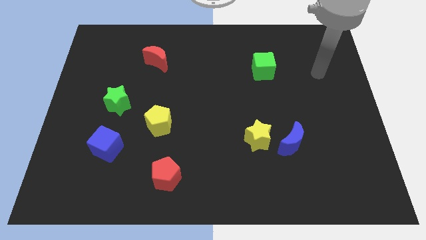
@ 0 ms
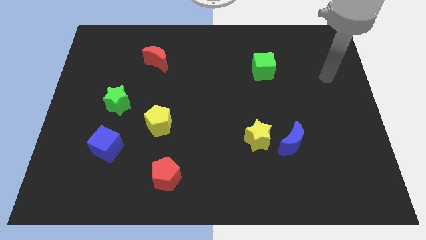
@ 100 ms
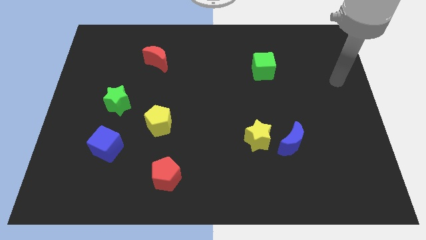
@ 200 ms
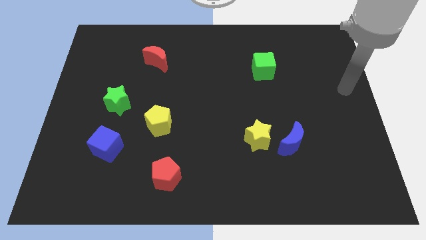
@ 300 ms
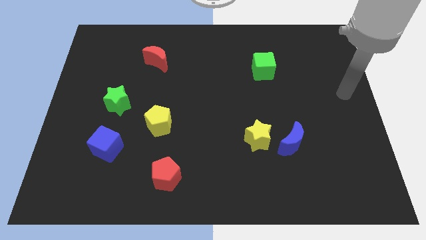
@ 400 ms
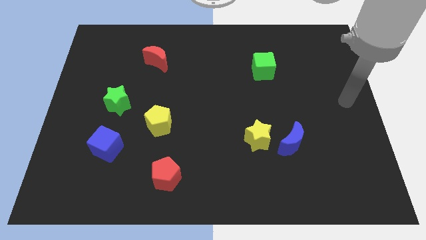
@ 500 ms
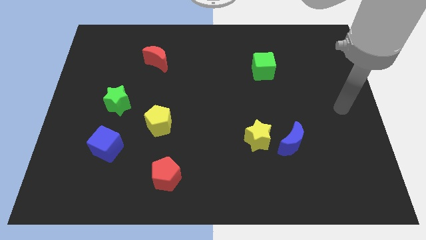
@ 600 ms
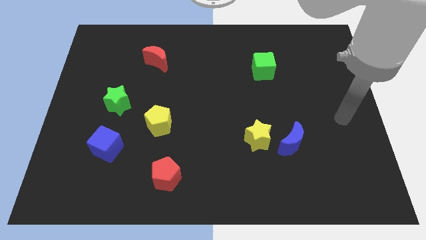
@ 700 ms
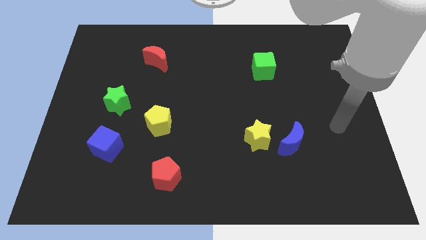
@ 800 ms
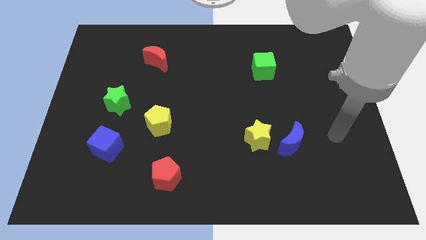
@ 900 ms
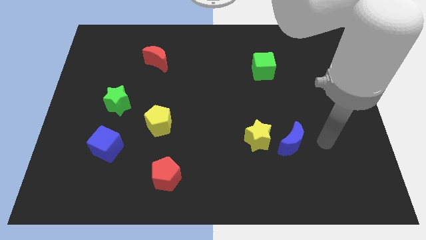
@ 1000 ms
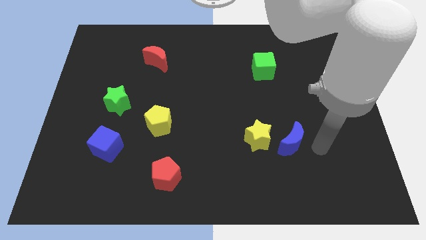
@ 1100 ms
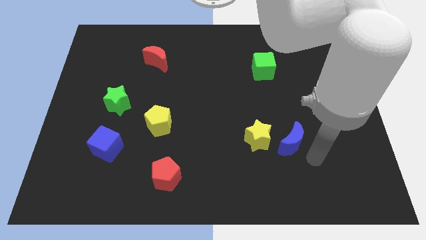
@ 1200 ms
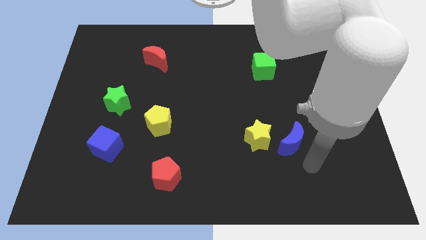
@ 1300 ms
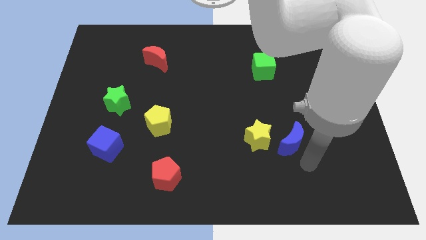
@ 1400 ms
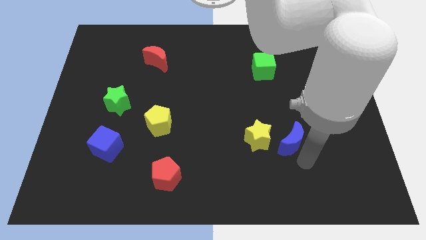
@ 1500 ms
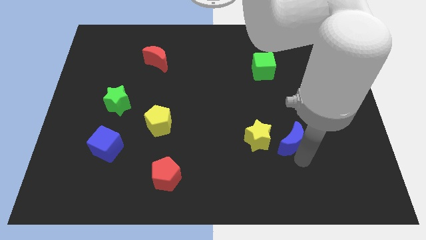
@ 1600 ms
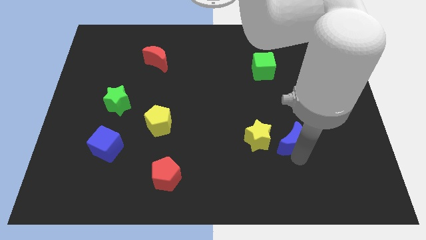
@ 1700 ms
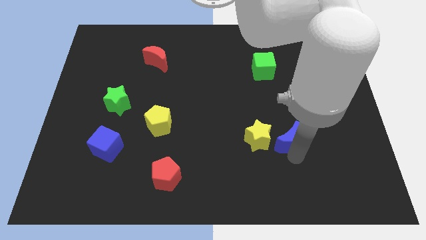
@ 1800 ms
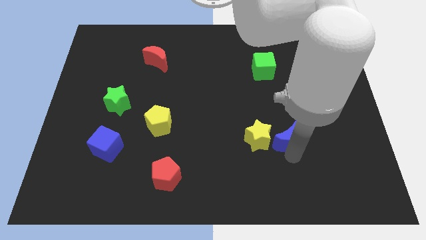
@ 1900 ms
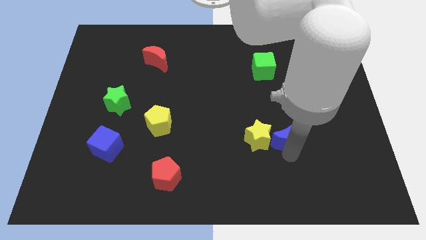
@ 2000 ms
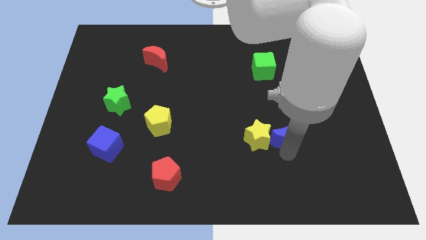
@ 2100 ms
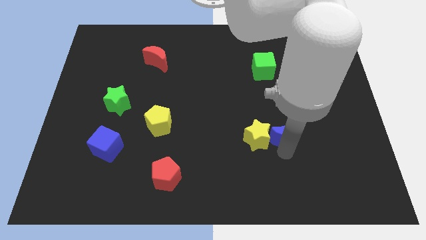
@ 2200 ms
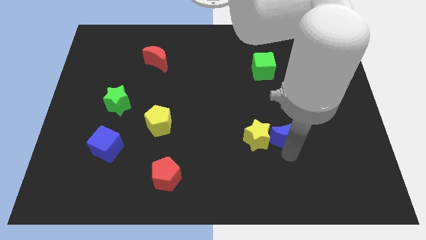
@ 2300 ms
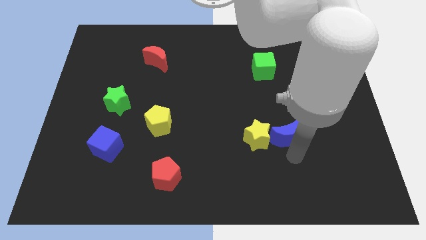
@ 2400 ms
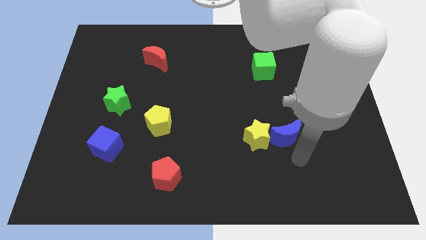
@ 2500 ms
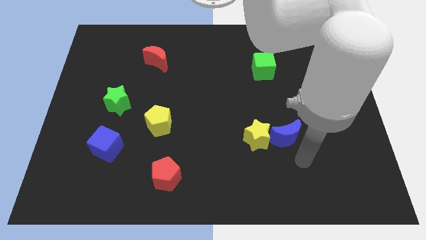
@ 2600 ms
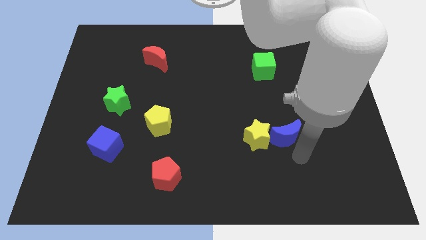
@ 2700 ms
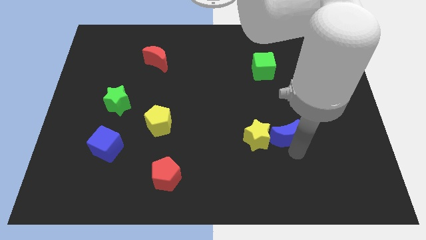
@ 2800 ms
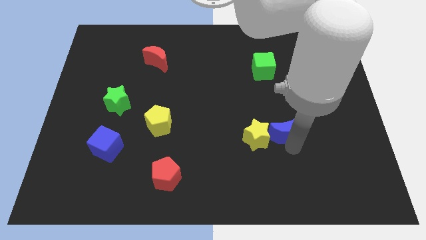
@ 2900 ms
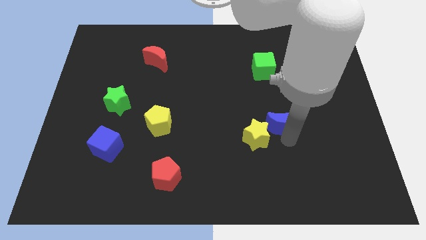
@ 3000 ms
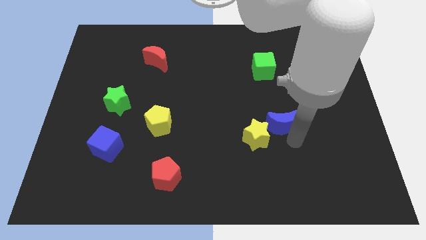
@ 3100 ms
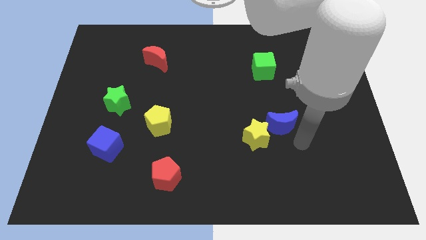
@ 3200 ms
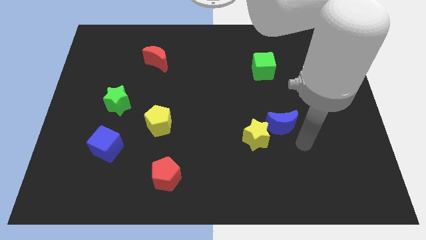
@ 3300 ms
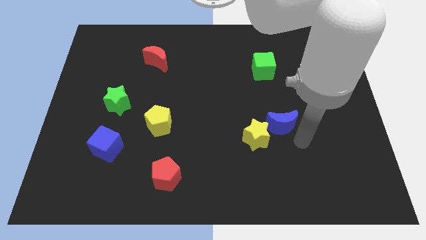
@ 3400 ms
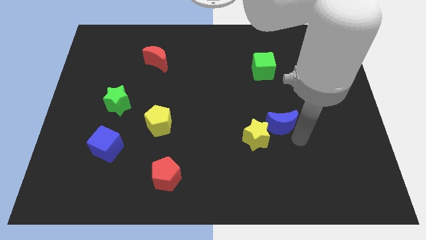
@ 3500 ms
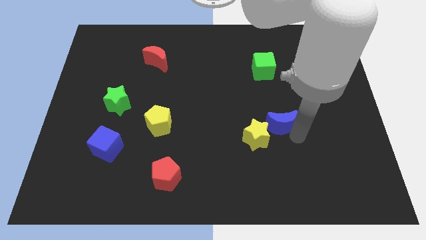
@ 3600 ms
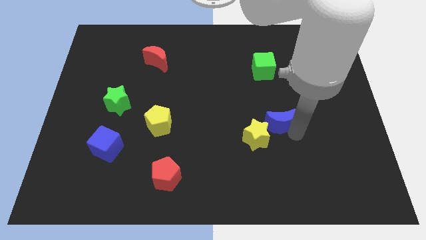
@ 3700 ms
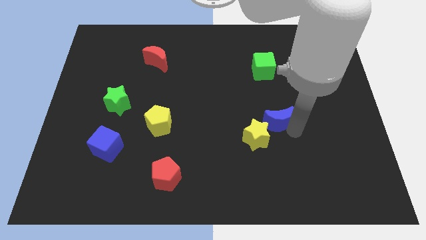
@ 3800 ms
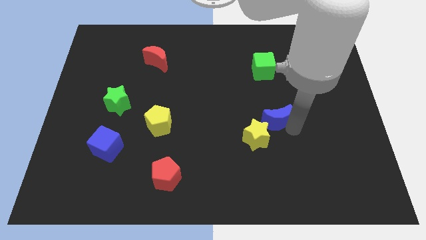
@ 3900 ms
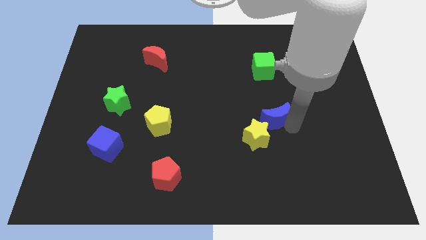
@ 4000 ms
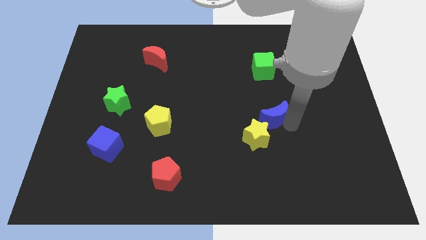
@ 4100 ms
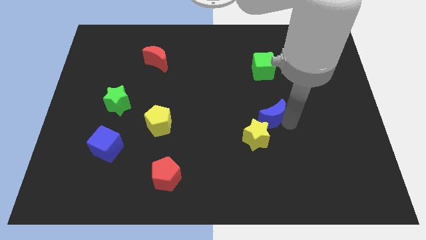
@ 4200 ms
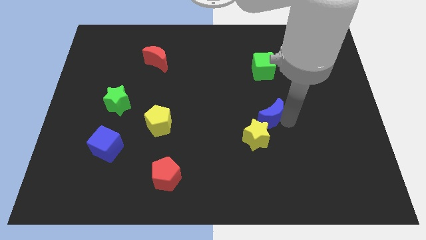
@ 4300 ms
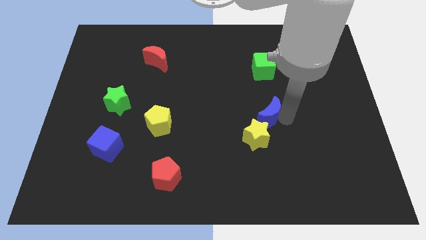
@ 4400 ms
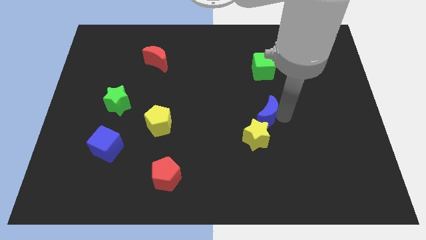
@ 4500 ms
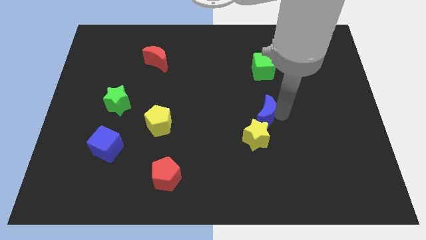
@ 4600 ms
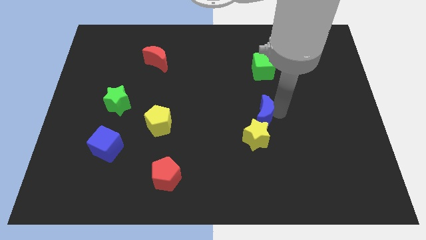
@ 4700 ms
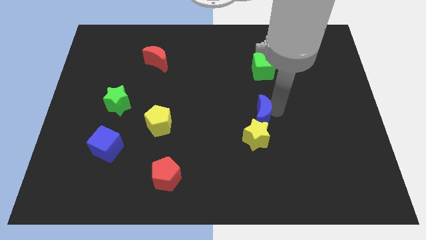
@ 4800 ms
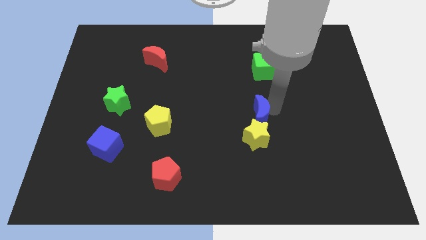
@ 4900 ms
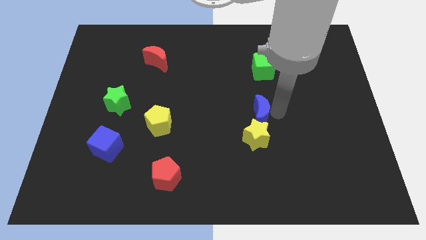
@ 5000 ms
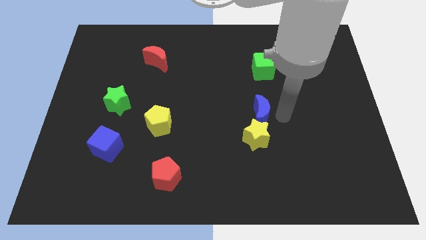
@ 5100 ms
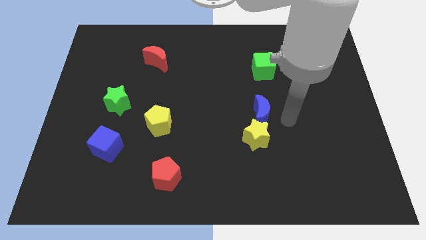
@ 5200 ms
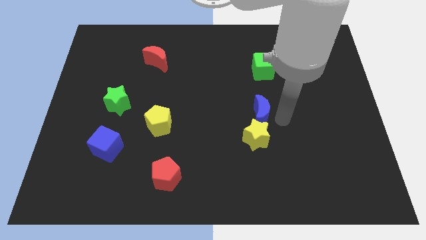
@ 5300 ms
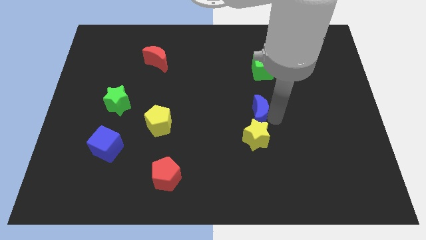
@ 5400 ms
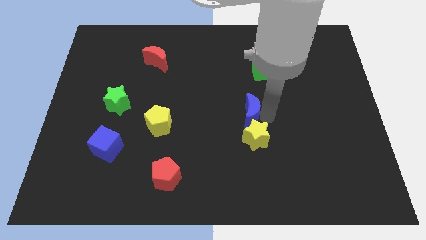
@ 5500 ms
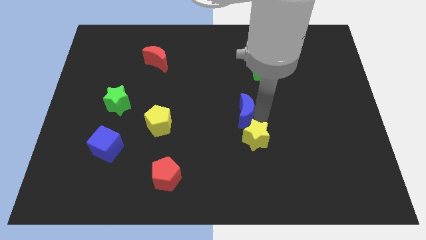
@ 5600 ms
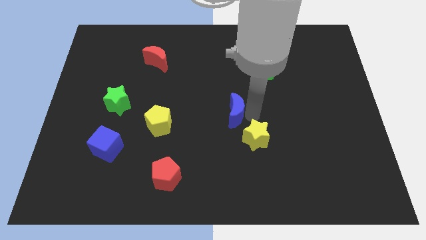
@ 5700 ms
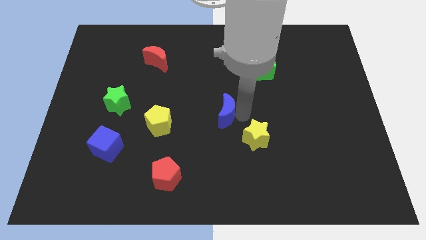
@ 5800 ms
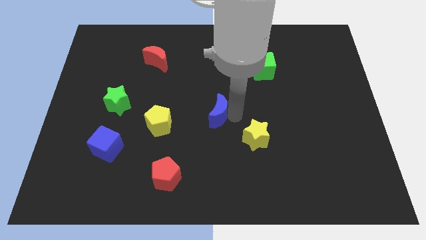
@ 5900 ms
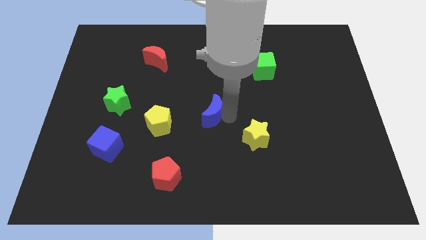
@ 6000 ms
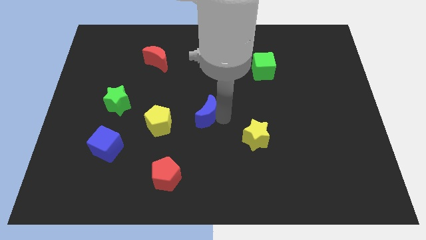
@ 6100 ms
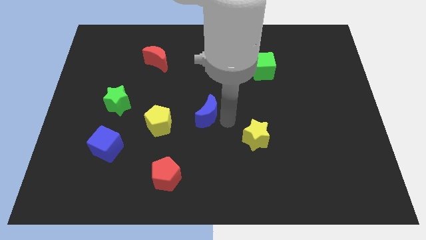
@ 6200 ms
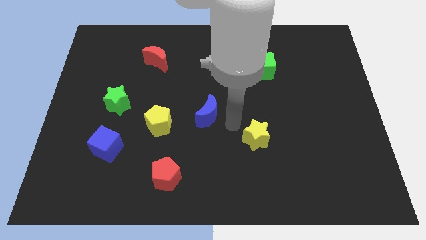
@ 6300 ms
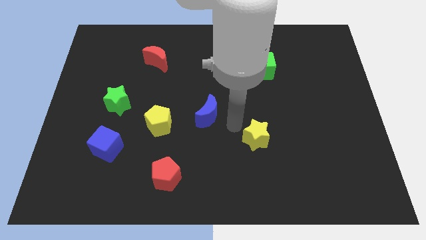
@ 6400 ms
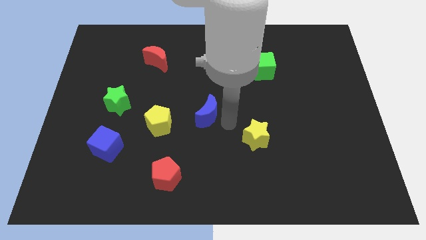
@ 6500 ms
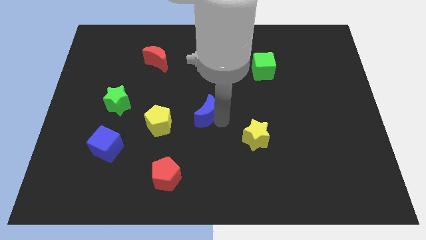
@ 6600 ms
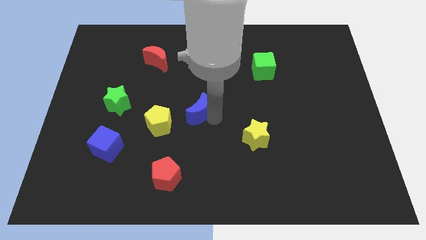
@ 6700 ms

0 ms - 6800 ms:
put the blue moon to the top right of the yellow pentagon
